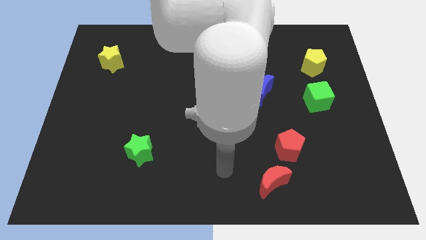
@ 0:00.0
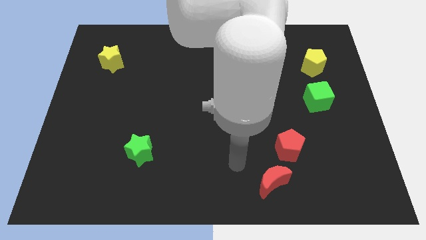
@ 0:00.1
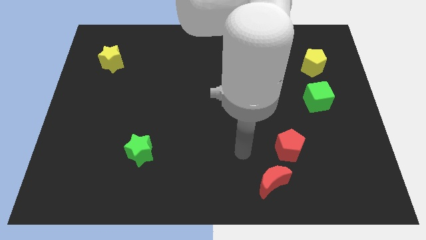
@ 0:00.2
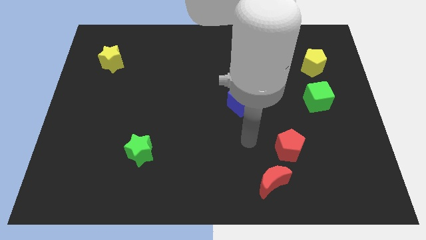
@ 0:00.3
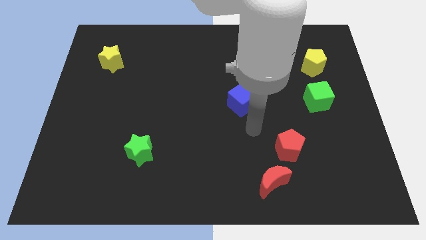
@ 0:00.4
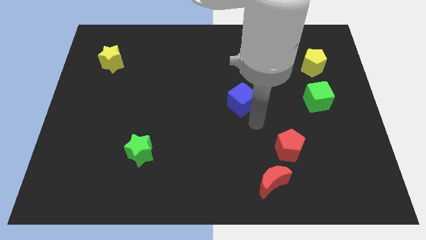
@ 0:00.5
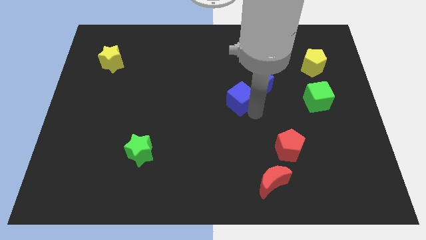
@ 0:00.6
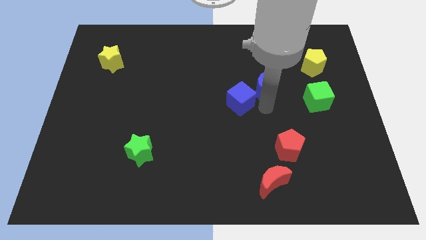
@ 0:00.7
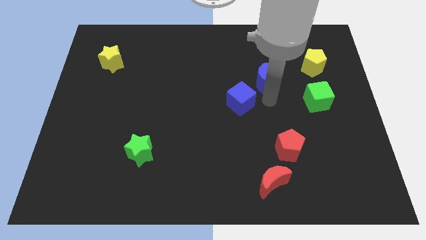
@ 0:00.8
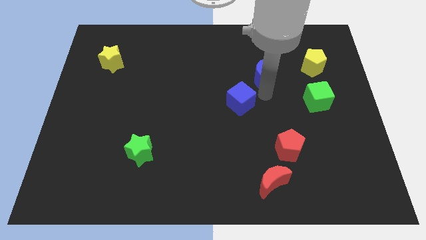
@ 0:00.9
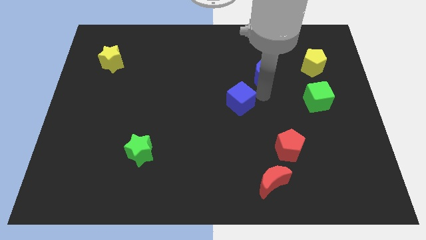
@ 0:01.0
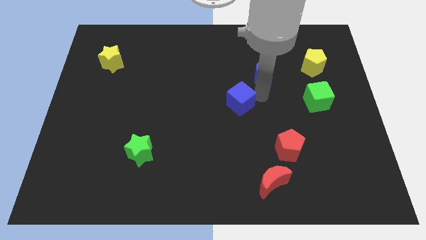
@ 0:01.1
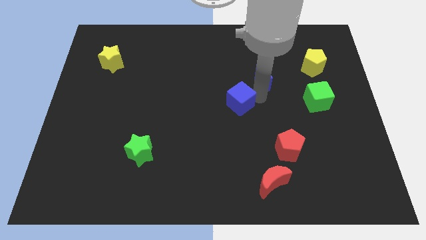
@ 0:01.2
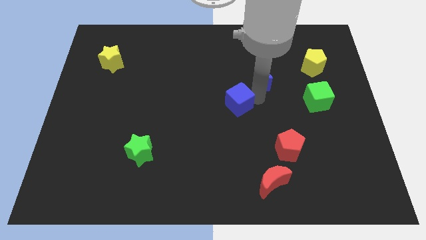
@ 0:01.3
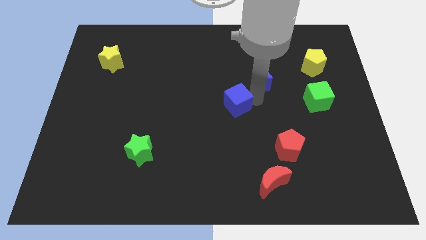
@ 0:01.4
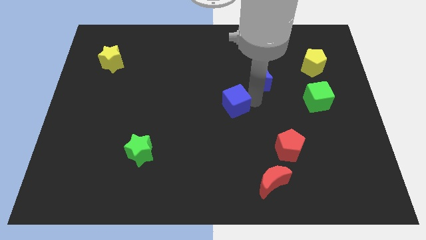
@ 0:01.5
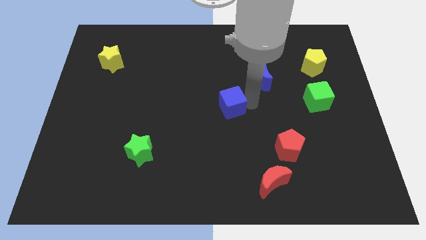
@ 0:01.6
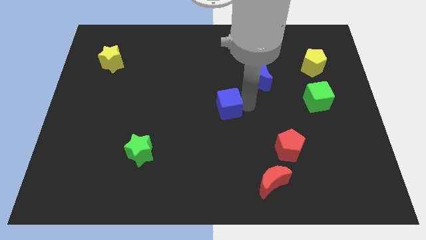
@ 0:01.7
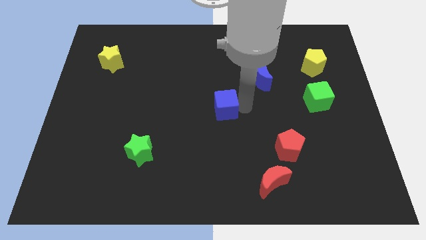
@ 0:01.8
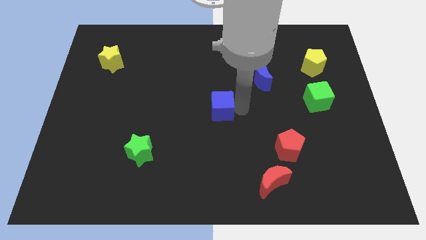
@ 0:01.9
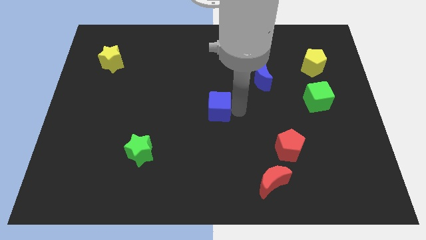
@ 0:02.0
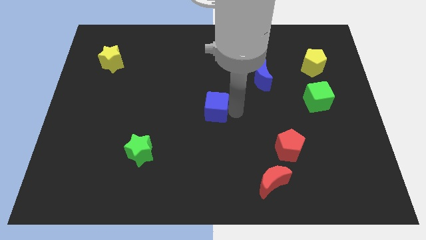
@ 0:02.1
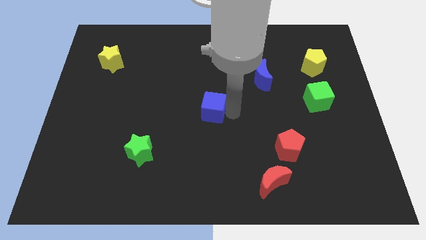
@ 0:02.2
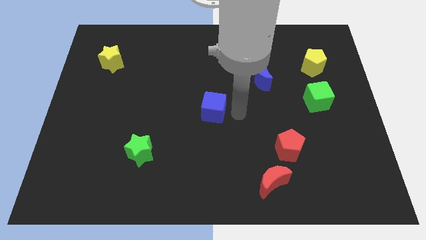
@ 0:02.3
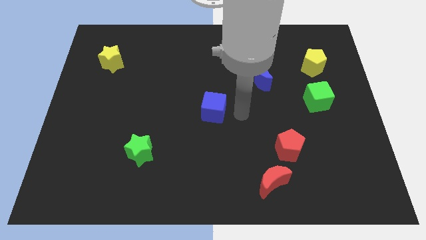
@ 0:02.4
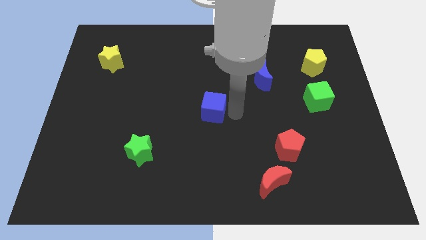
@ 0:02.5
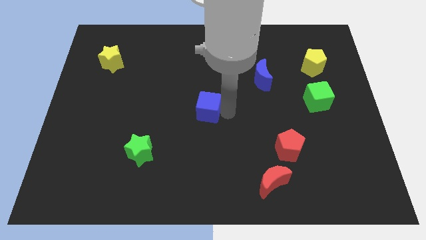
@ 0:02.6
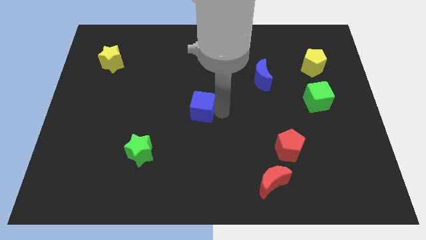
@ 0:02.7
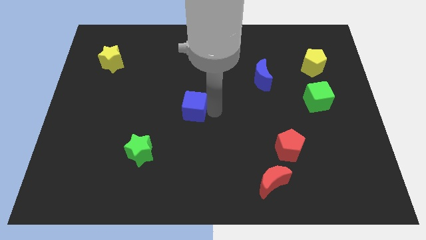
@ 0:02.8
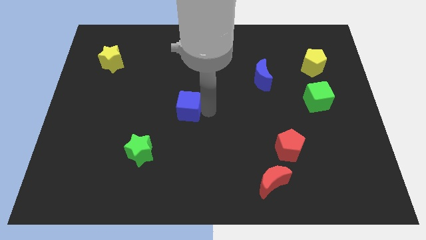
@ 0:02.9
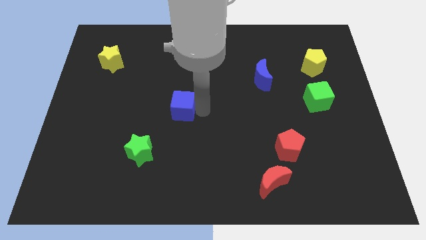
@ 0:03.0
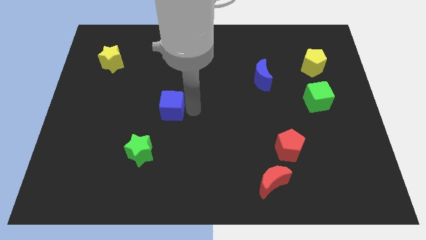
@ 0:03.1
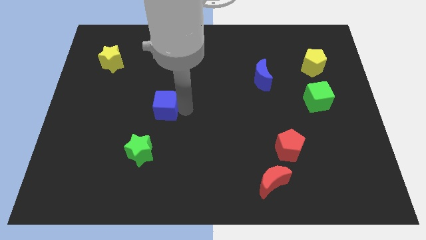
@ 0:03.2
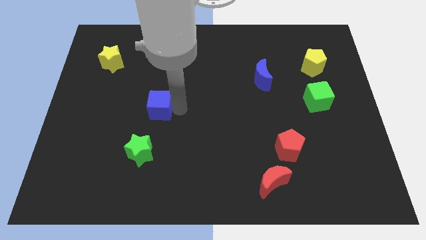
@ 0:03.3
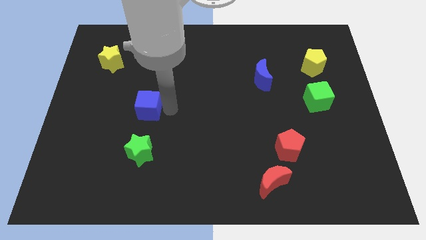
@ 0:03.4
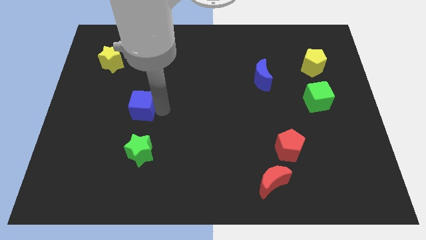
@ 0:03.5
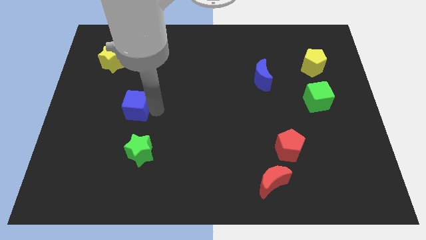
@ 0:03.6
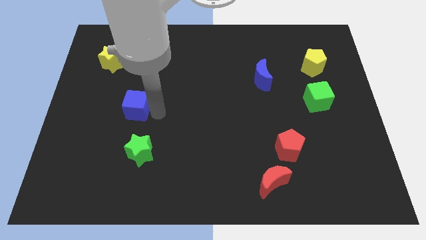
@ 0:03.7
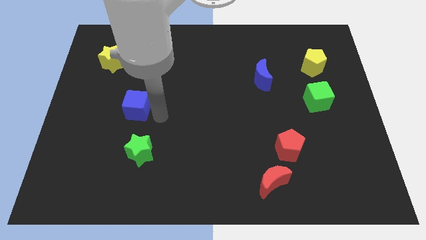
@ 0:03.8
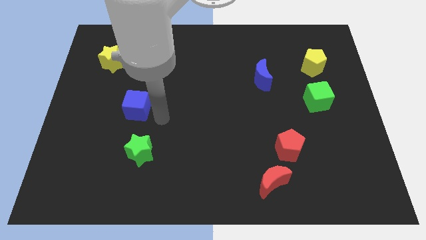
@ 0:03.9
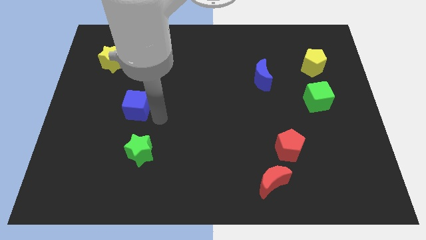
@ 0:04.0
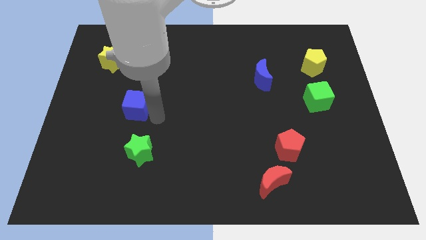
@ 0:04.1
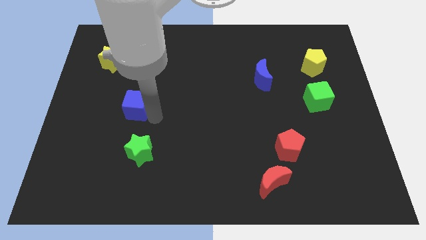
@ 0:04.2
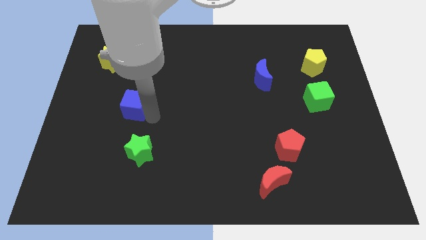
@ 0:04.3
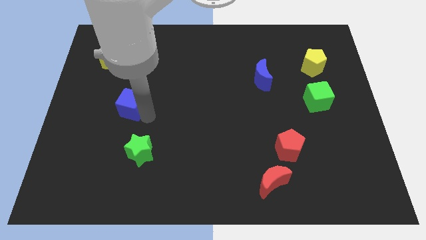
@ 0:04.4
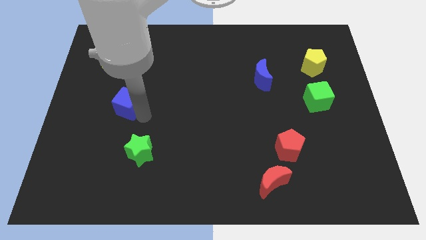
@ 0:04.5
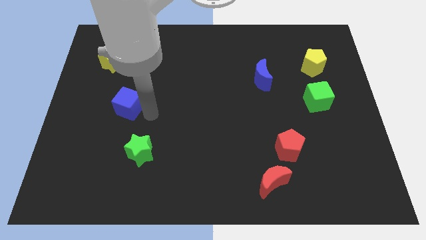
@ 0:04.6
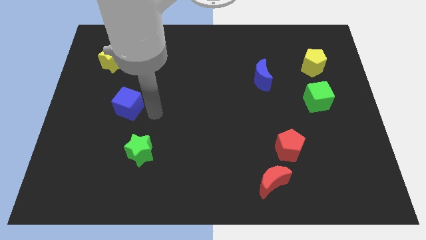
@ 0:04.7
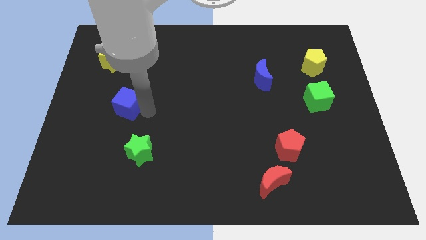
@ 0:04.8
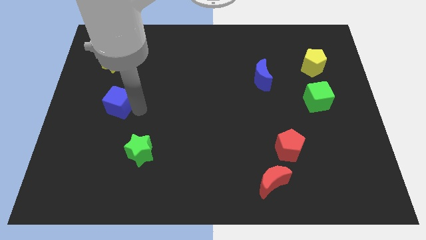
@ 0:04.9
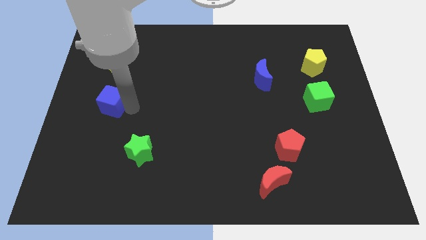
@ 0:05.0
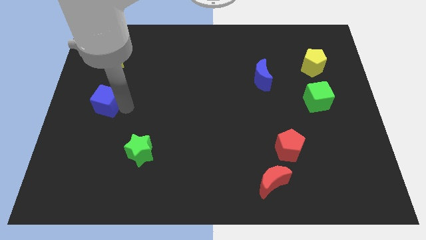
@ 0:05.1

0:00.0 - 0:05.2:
push the blue cube to the center left
